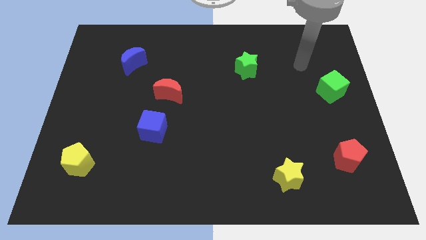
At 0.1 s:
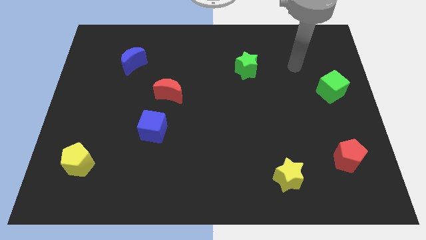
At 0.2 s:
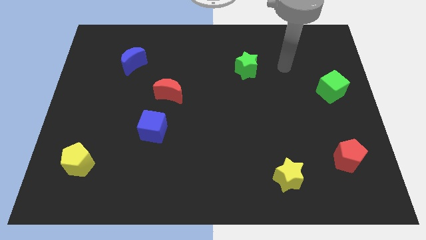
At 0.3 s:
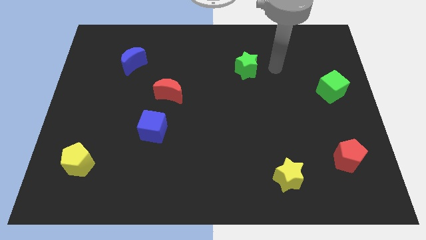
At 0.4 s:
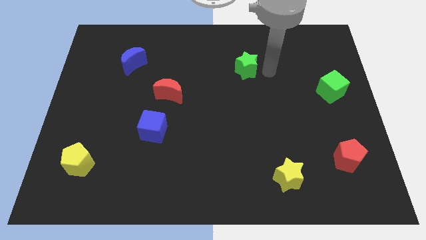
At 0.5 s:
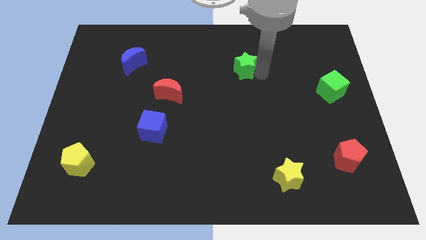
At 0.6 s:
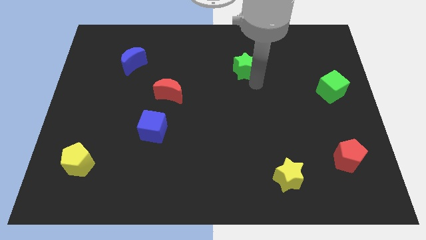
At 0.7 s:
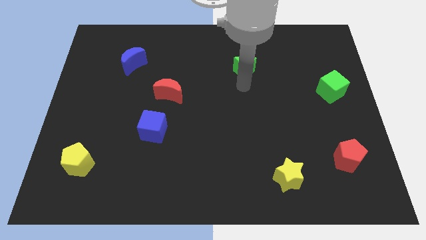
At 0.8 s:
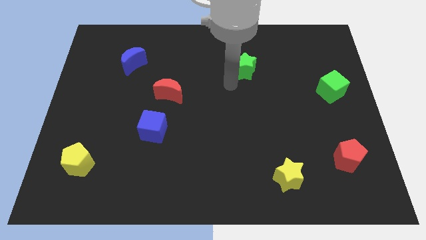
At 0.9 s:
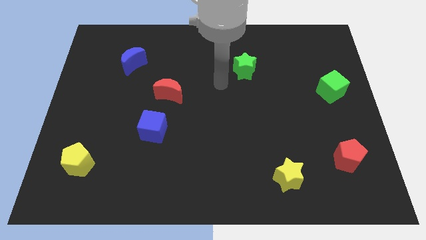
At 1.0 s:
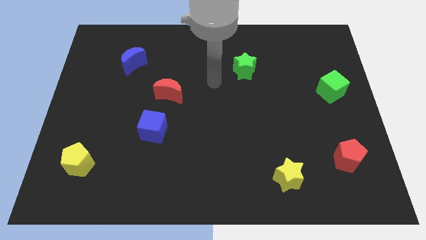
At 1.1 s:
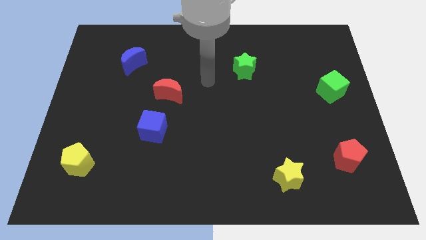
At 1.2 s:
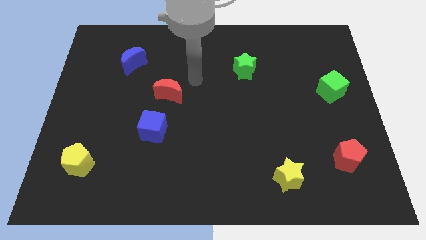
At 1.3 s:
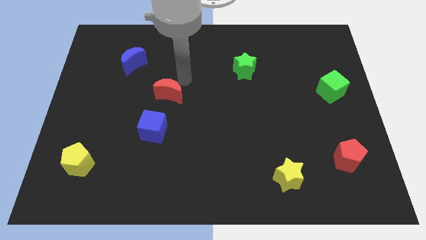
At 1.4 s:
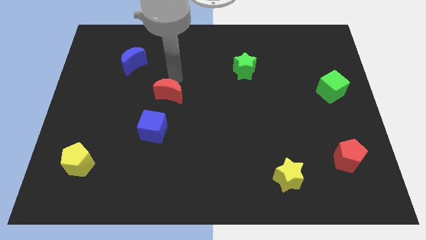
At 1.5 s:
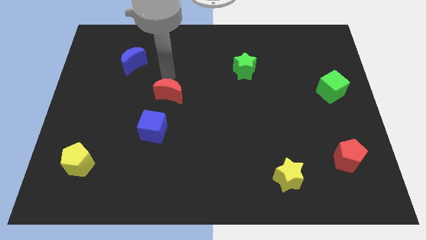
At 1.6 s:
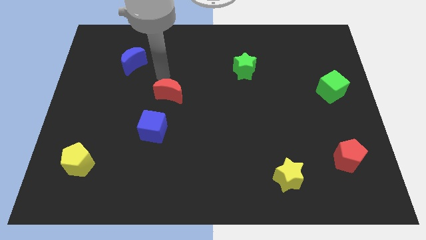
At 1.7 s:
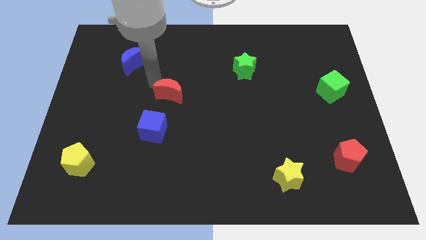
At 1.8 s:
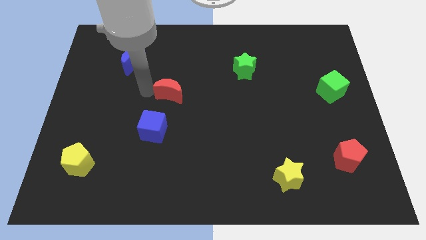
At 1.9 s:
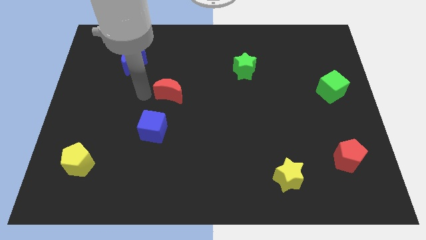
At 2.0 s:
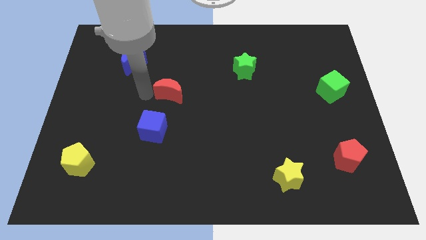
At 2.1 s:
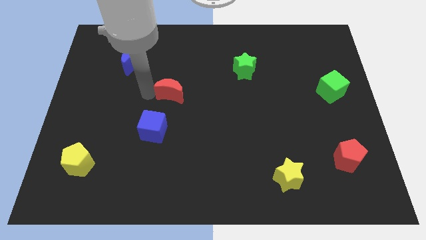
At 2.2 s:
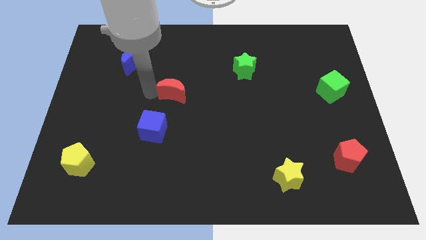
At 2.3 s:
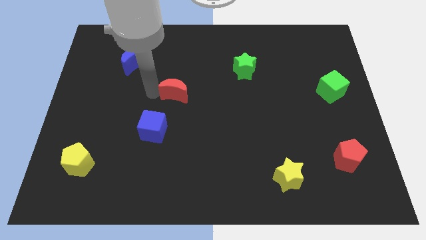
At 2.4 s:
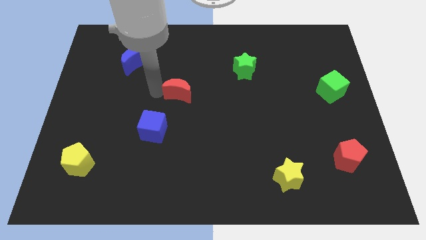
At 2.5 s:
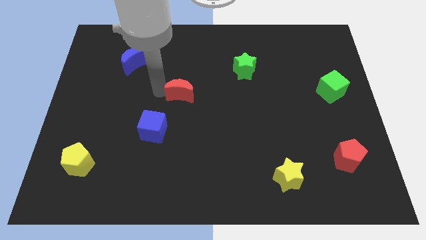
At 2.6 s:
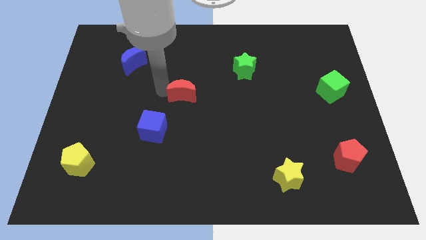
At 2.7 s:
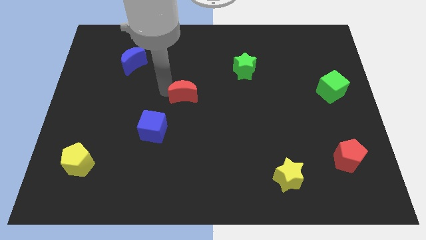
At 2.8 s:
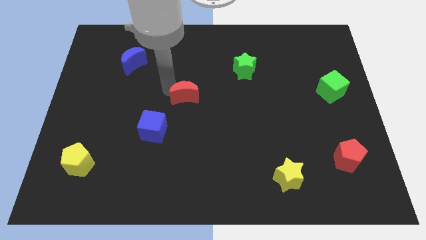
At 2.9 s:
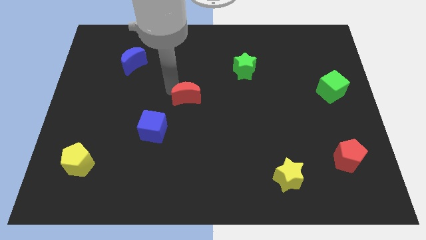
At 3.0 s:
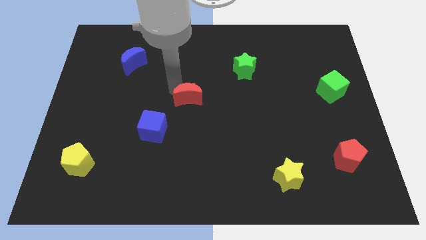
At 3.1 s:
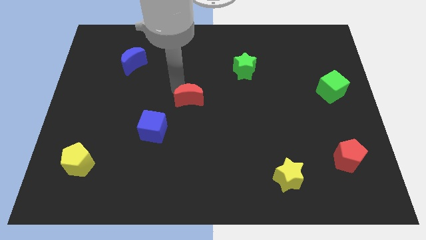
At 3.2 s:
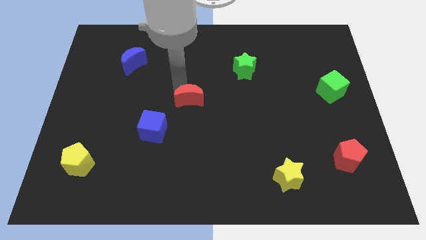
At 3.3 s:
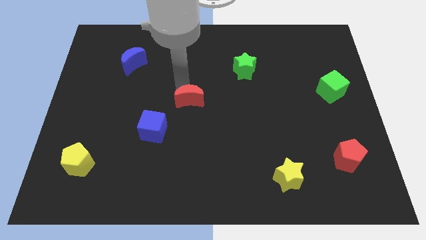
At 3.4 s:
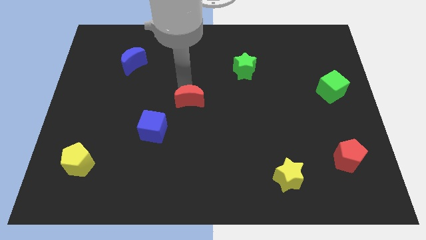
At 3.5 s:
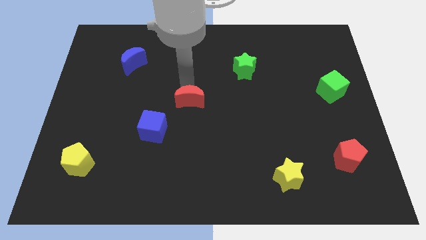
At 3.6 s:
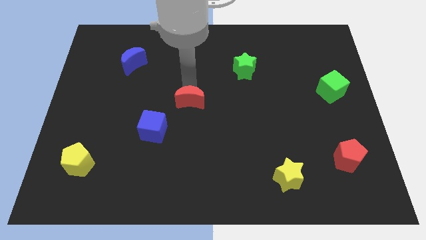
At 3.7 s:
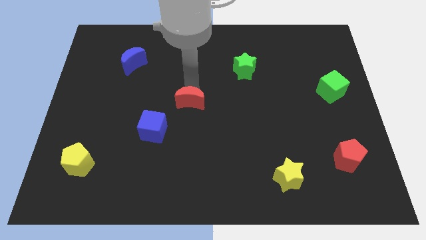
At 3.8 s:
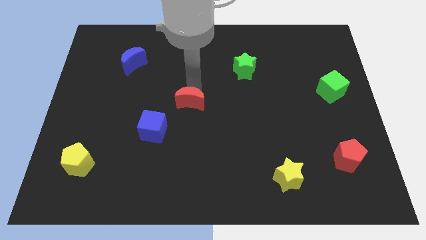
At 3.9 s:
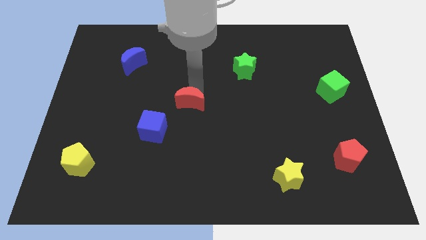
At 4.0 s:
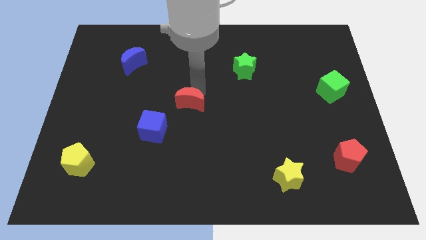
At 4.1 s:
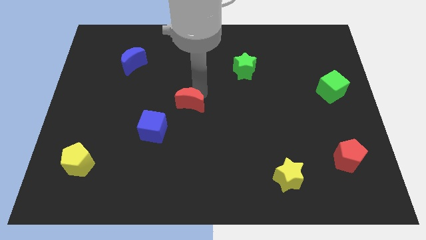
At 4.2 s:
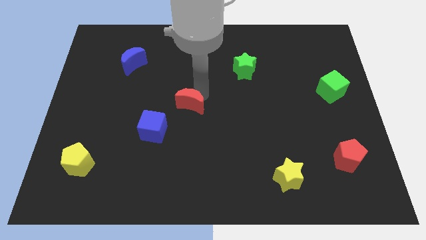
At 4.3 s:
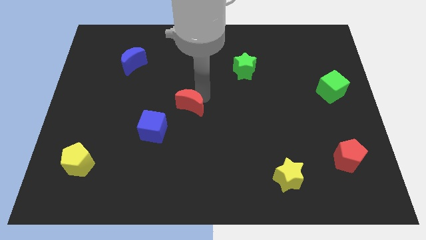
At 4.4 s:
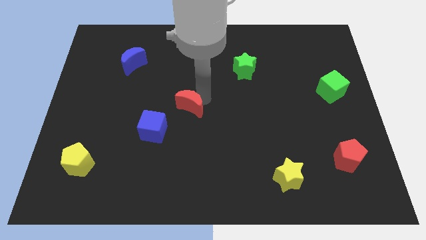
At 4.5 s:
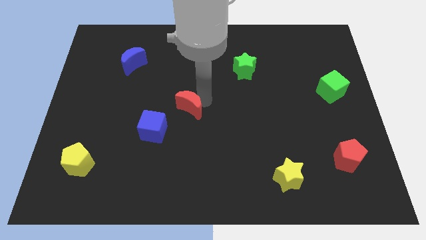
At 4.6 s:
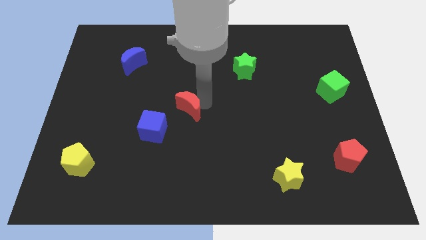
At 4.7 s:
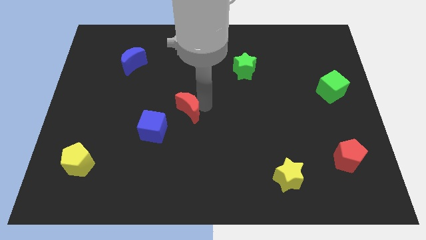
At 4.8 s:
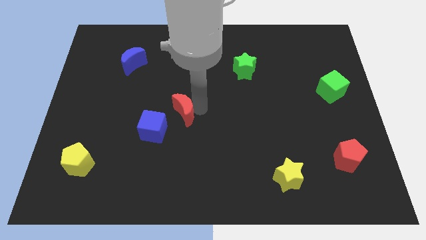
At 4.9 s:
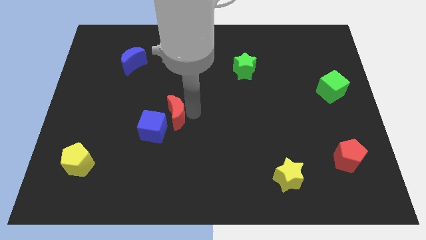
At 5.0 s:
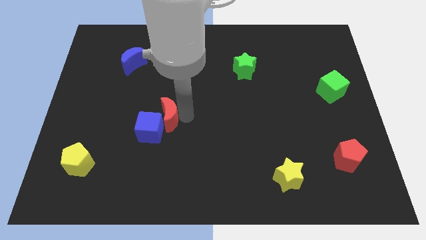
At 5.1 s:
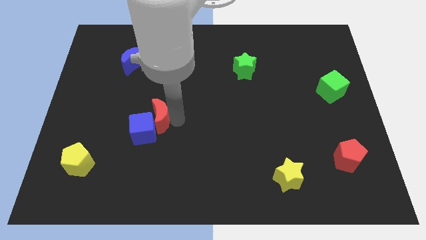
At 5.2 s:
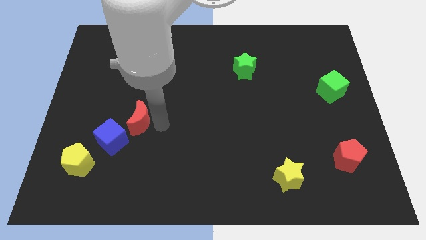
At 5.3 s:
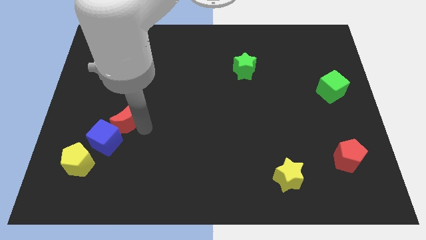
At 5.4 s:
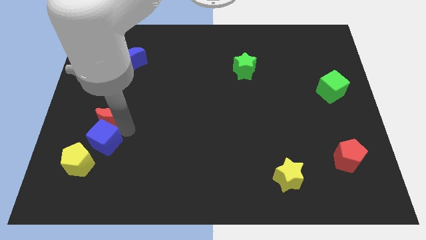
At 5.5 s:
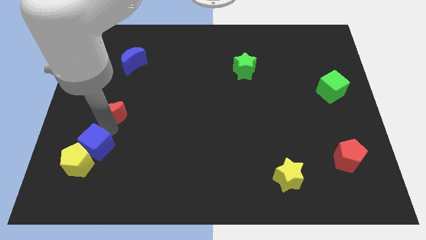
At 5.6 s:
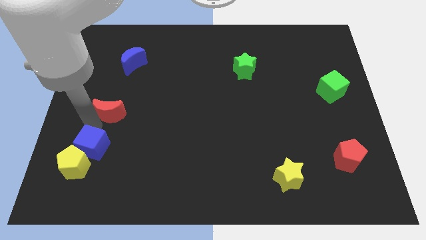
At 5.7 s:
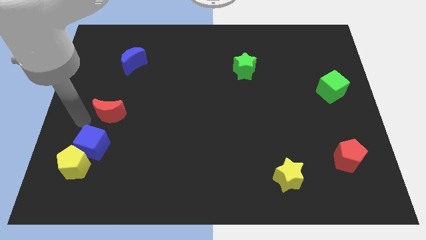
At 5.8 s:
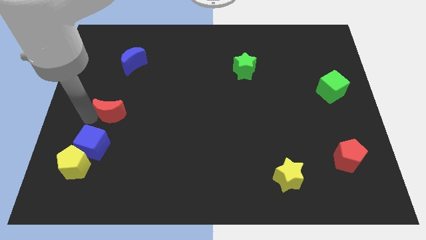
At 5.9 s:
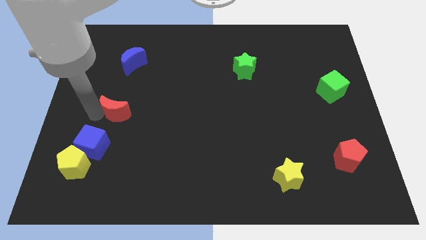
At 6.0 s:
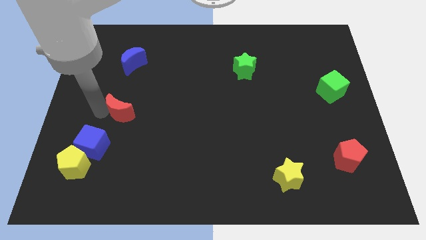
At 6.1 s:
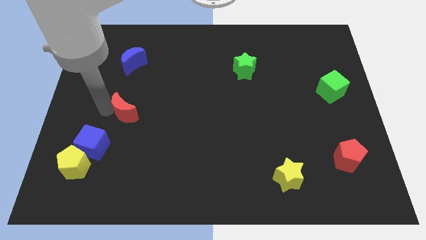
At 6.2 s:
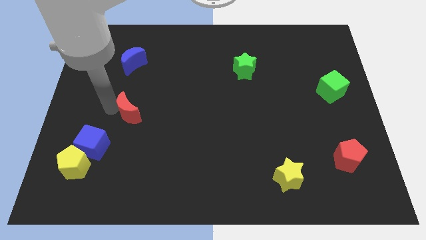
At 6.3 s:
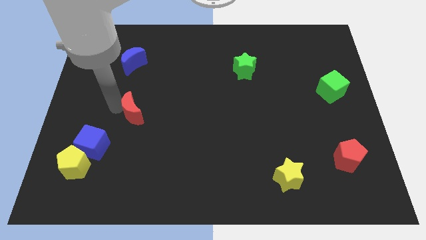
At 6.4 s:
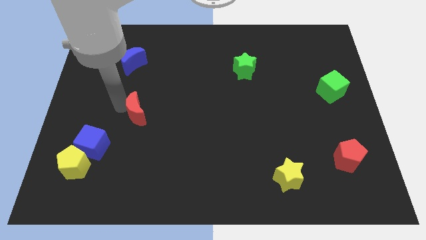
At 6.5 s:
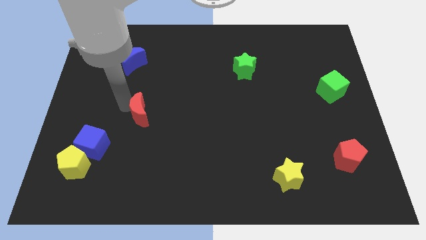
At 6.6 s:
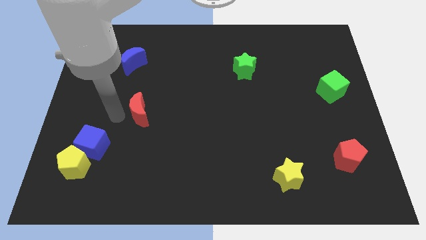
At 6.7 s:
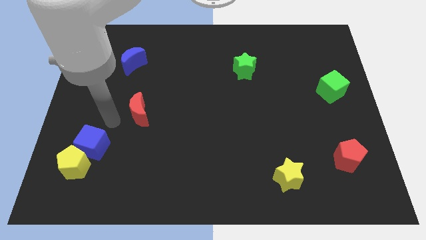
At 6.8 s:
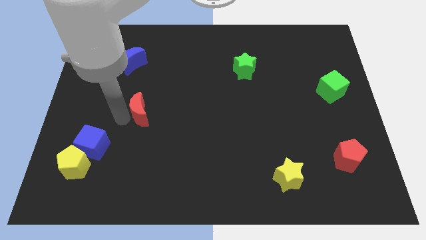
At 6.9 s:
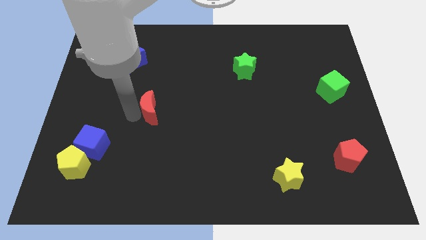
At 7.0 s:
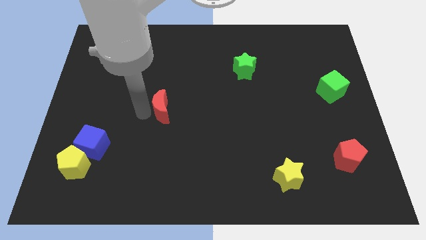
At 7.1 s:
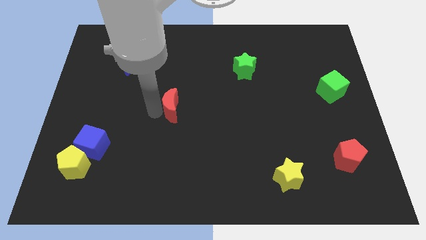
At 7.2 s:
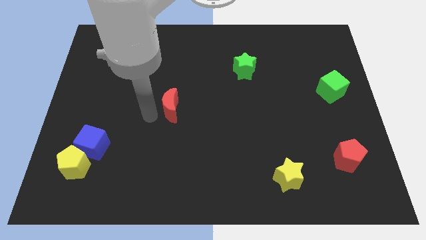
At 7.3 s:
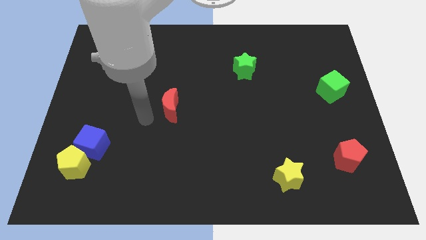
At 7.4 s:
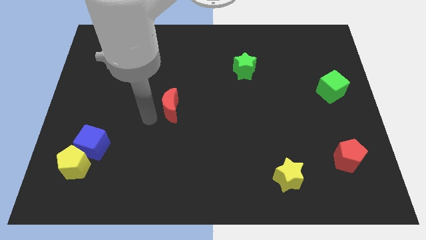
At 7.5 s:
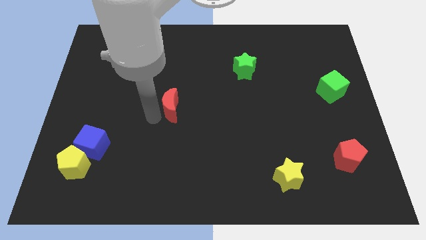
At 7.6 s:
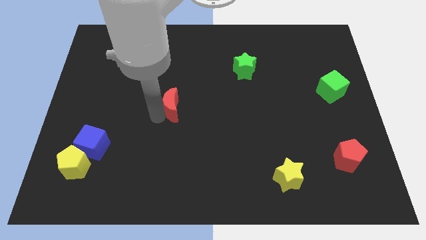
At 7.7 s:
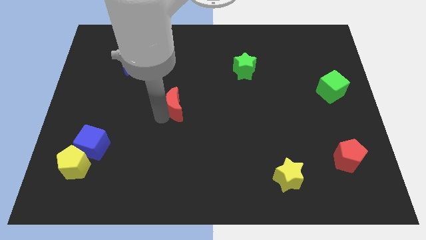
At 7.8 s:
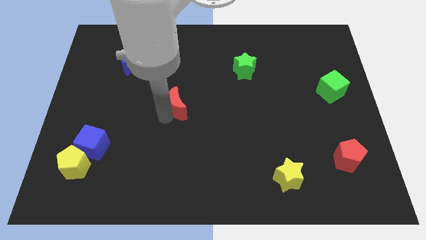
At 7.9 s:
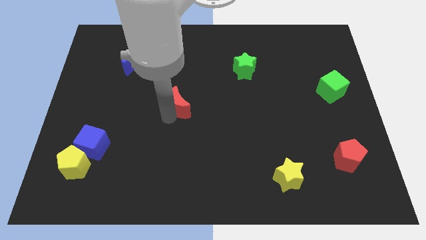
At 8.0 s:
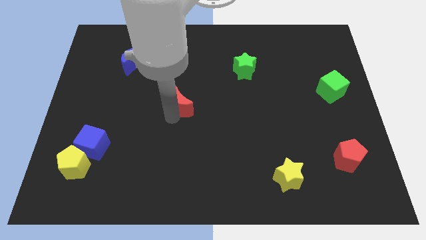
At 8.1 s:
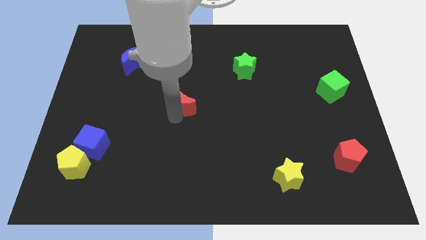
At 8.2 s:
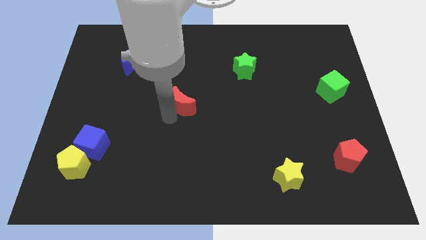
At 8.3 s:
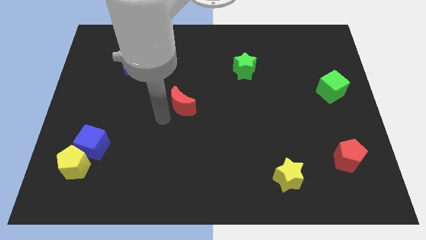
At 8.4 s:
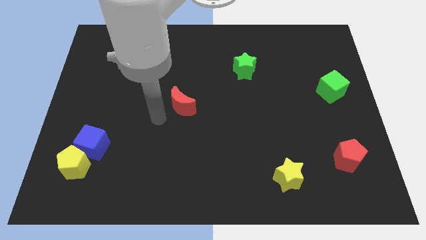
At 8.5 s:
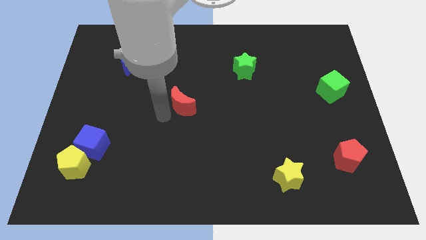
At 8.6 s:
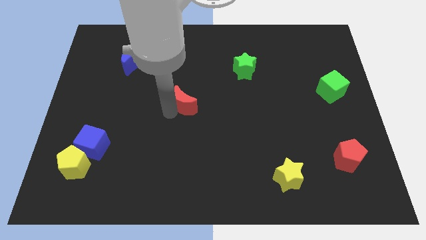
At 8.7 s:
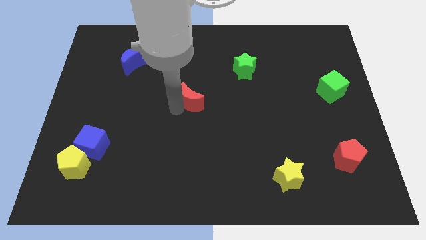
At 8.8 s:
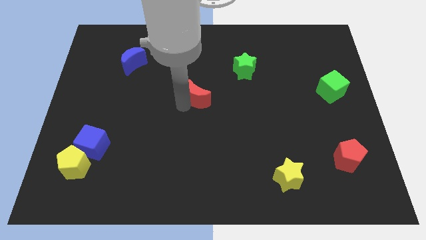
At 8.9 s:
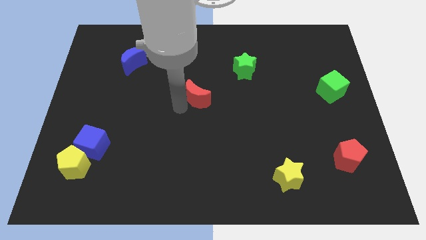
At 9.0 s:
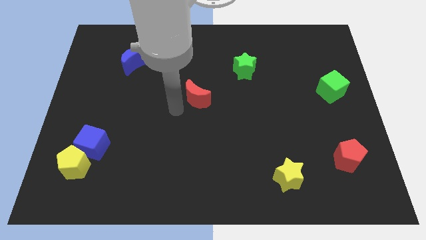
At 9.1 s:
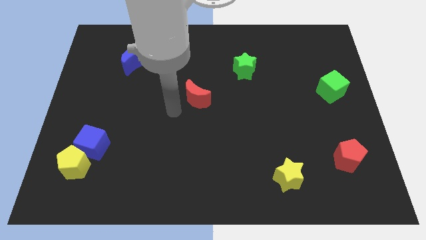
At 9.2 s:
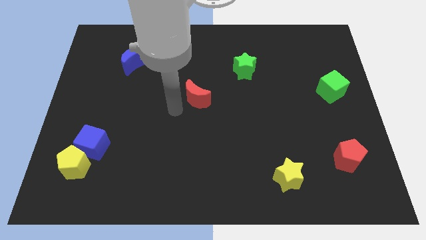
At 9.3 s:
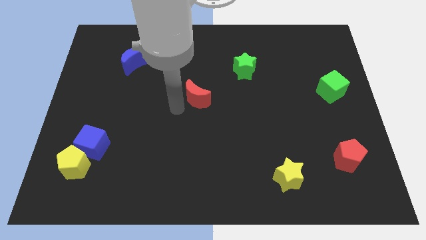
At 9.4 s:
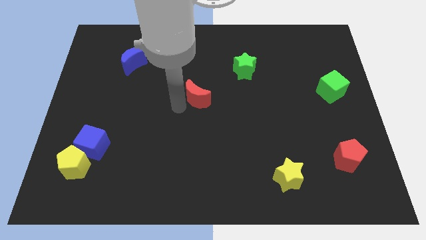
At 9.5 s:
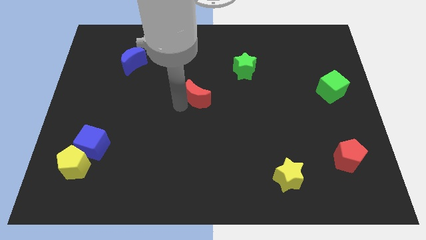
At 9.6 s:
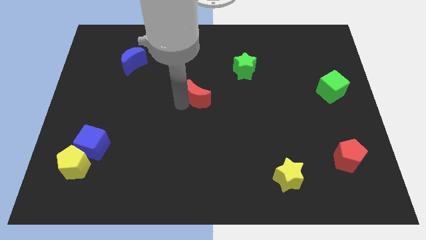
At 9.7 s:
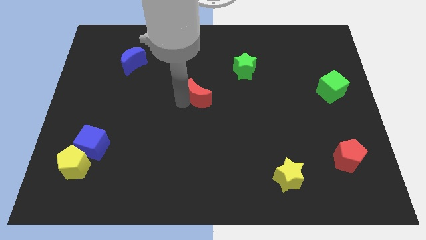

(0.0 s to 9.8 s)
slightly slide the red moon right
